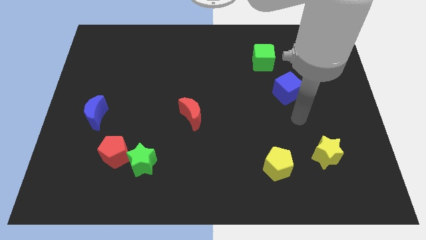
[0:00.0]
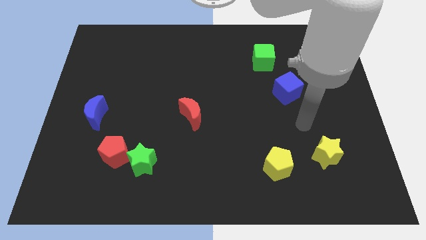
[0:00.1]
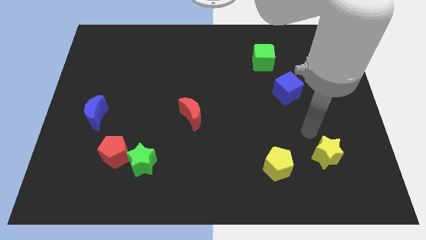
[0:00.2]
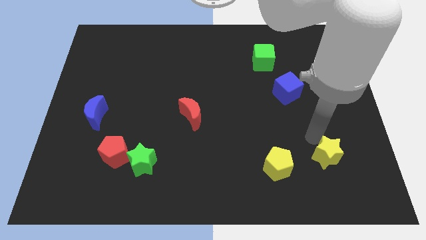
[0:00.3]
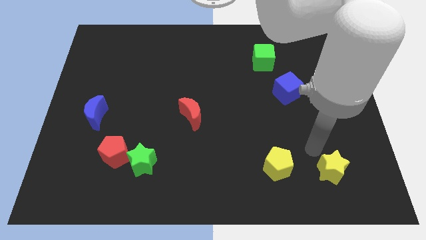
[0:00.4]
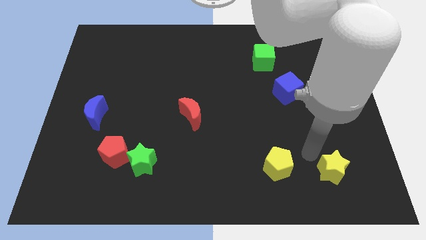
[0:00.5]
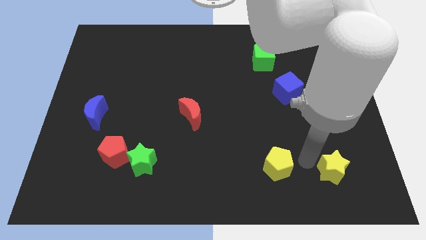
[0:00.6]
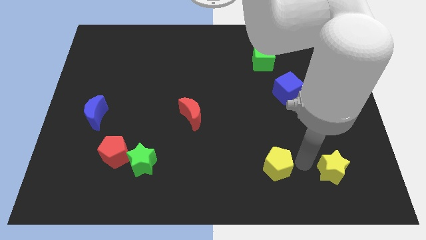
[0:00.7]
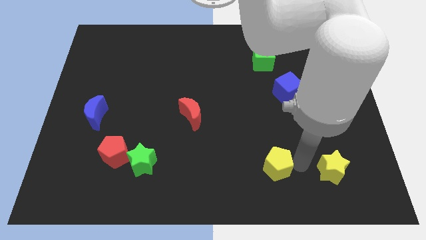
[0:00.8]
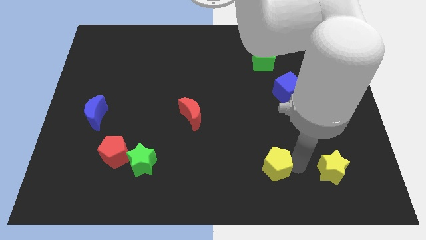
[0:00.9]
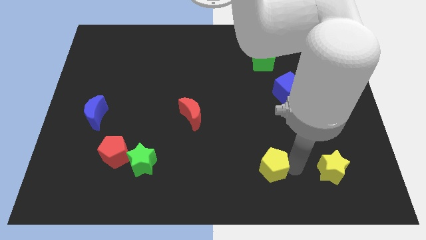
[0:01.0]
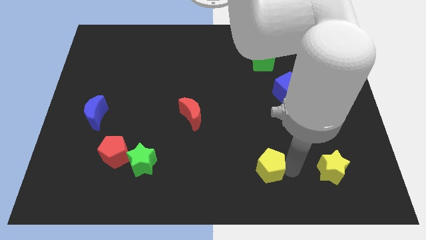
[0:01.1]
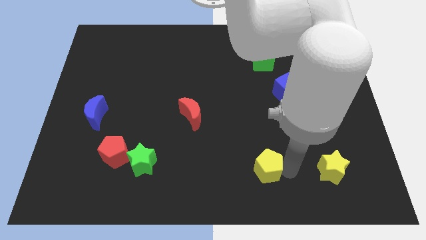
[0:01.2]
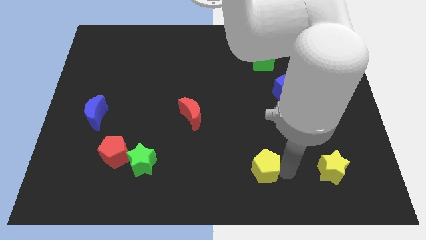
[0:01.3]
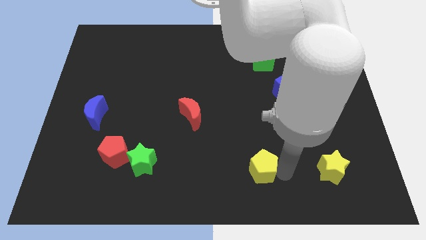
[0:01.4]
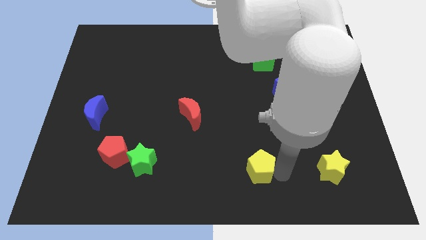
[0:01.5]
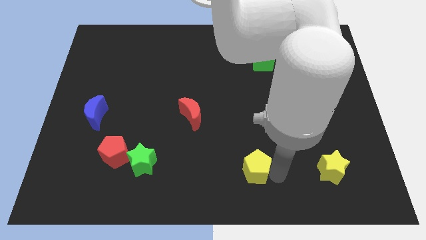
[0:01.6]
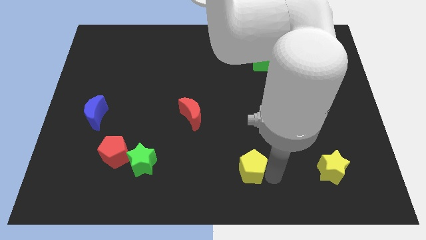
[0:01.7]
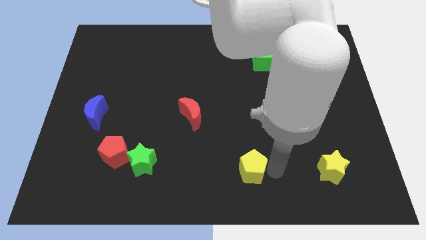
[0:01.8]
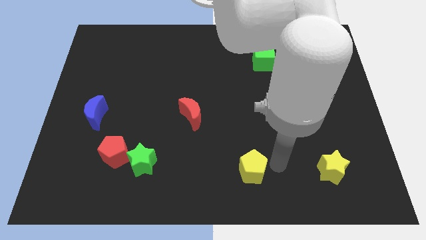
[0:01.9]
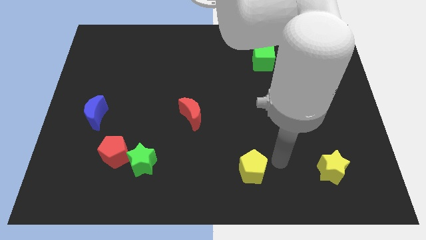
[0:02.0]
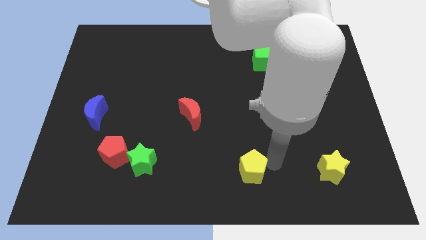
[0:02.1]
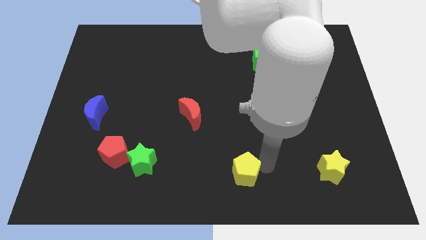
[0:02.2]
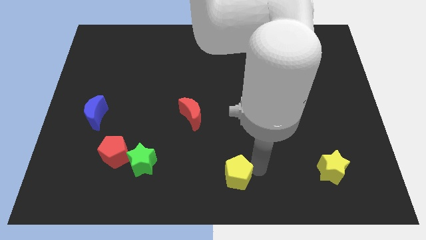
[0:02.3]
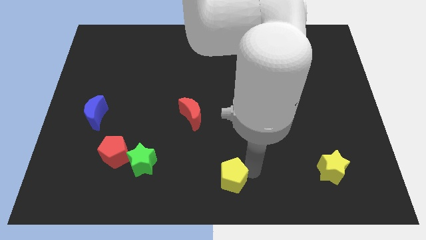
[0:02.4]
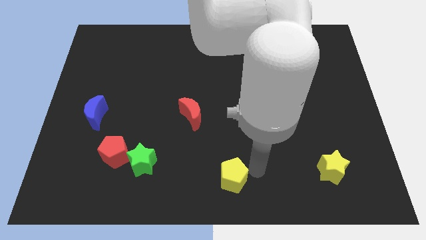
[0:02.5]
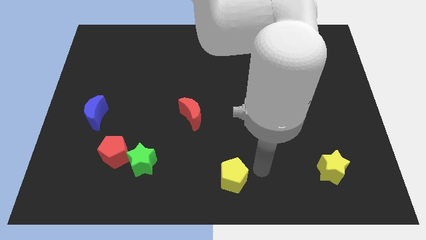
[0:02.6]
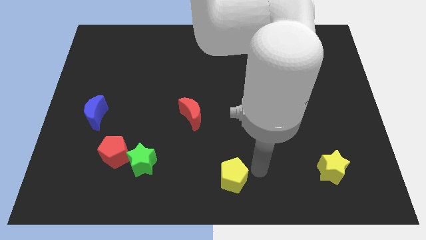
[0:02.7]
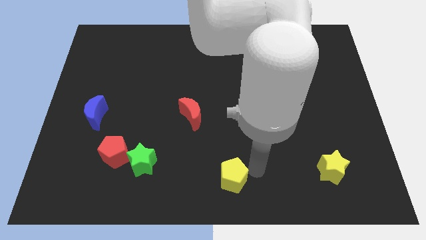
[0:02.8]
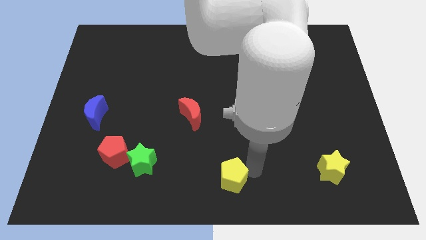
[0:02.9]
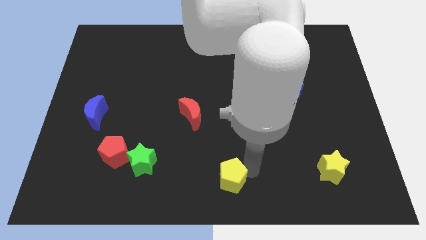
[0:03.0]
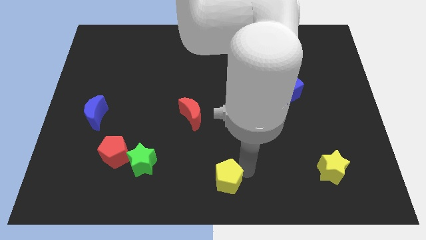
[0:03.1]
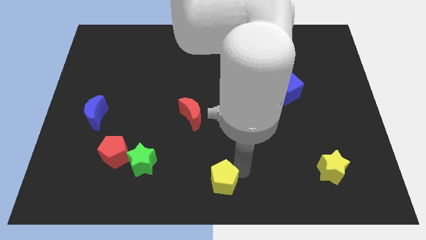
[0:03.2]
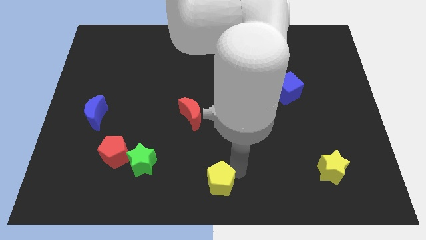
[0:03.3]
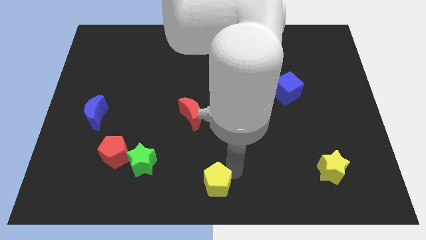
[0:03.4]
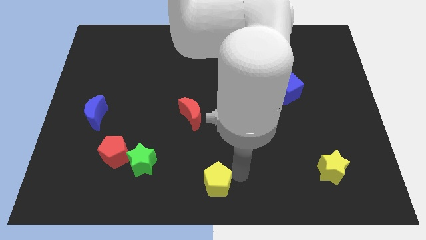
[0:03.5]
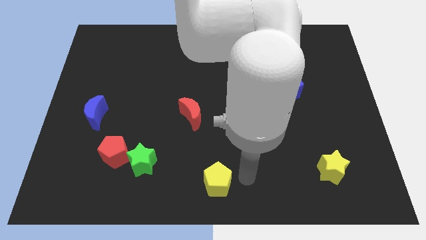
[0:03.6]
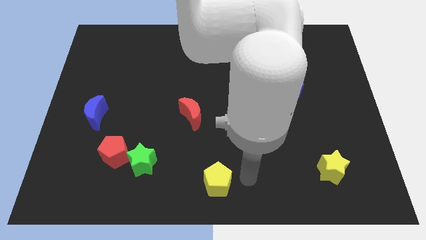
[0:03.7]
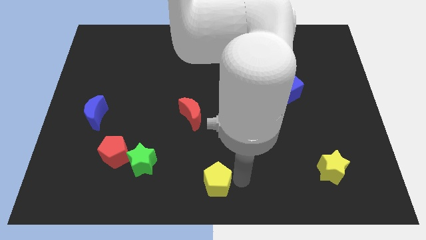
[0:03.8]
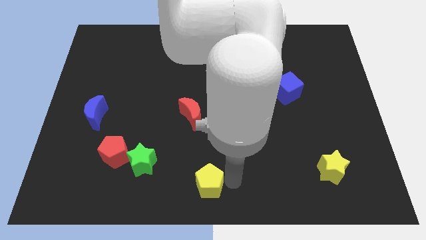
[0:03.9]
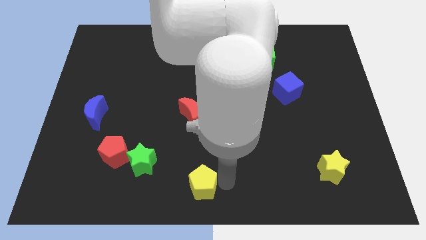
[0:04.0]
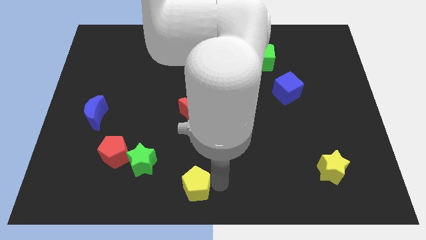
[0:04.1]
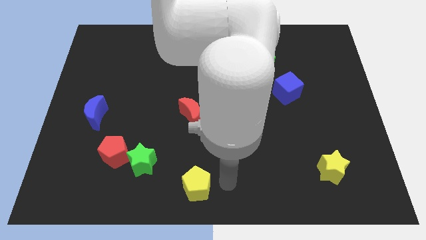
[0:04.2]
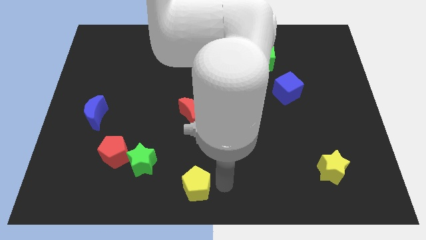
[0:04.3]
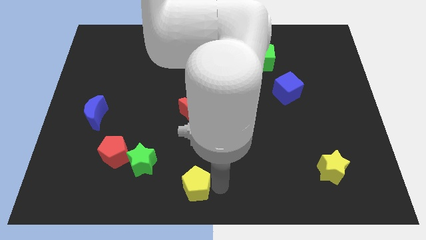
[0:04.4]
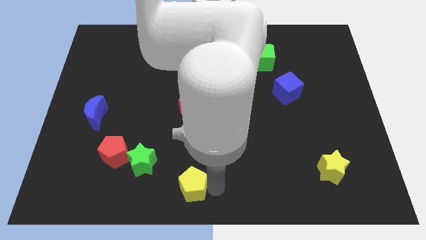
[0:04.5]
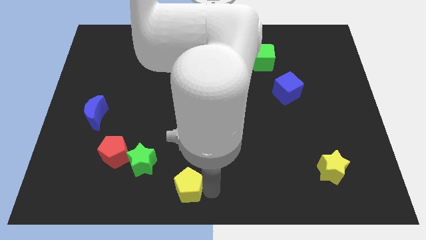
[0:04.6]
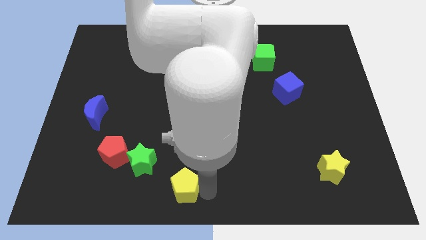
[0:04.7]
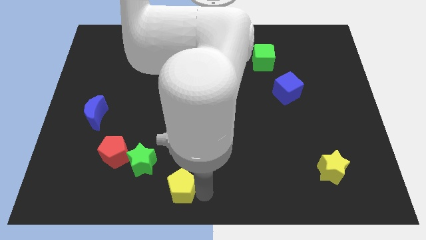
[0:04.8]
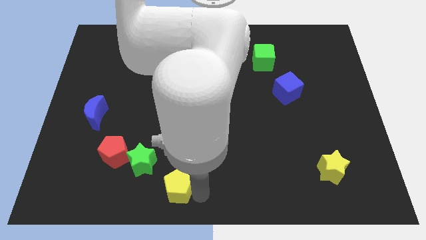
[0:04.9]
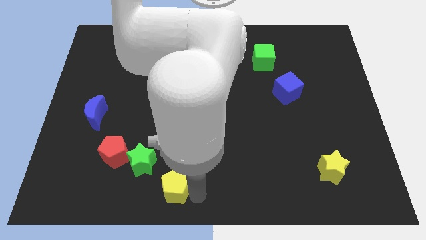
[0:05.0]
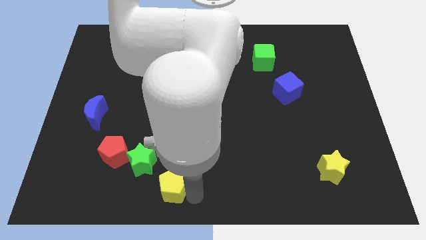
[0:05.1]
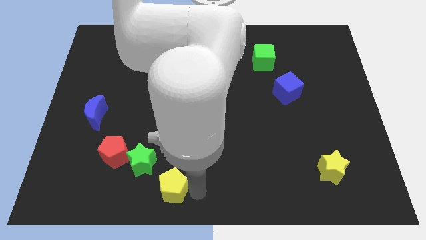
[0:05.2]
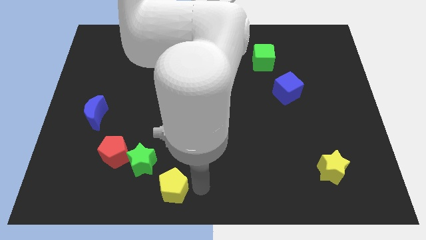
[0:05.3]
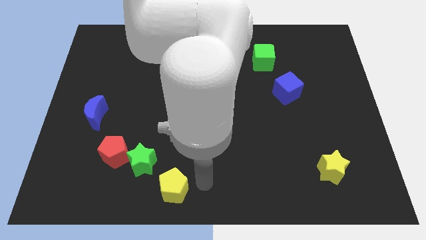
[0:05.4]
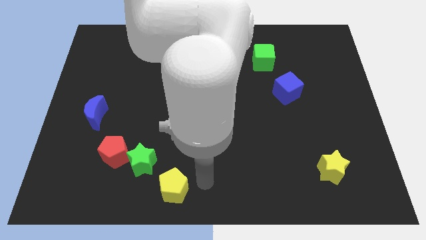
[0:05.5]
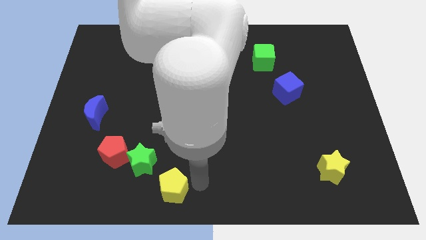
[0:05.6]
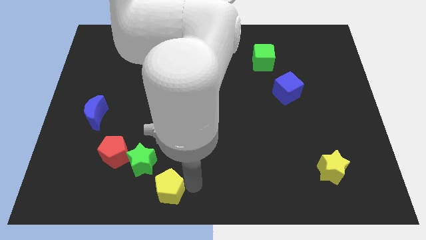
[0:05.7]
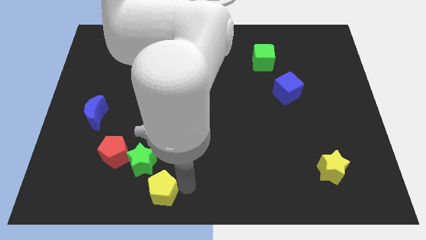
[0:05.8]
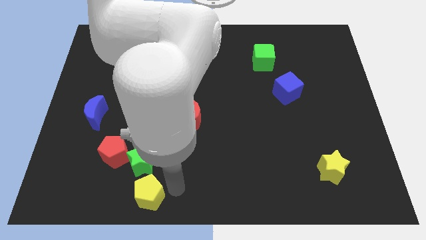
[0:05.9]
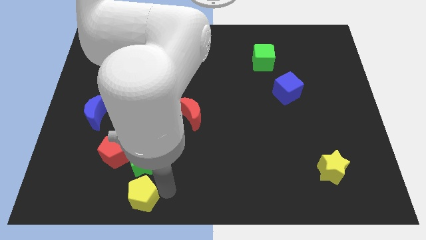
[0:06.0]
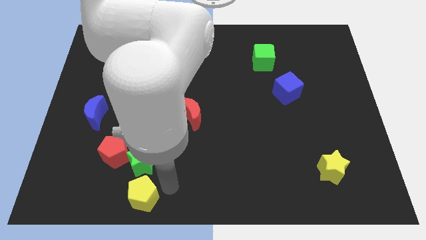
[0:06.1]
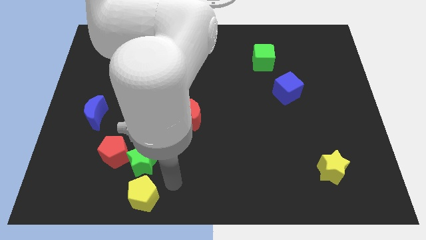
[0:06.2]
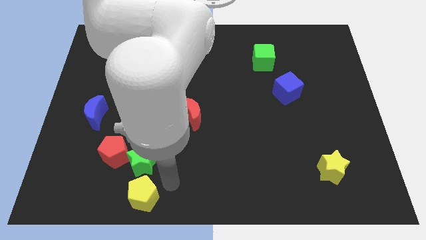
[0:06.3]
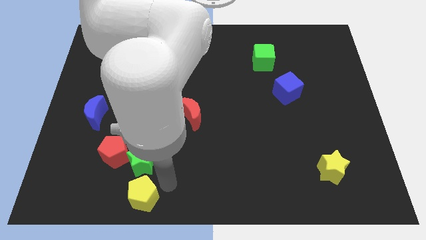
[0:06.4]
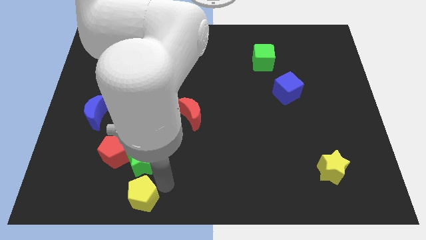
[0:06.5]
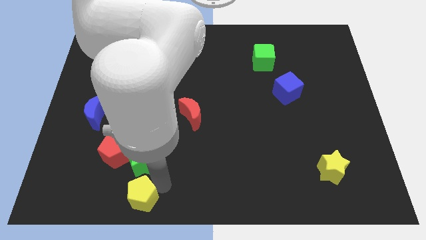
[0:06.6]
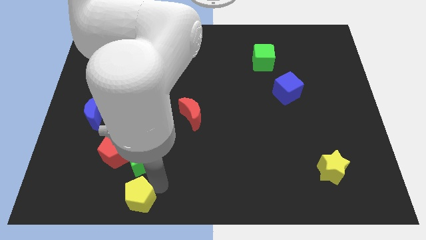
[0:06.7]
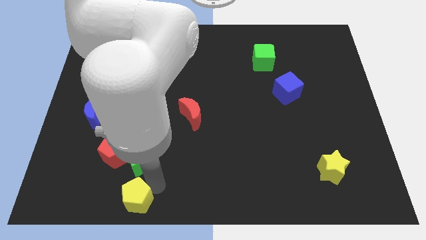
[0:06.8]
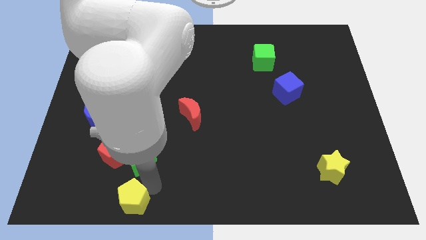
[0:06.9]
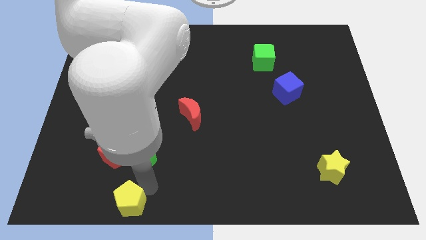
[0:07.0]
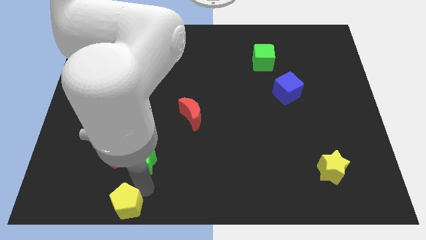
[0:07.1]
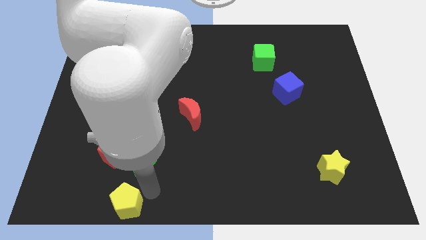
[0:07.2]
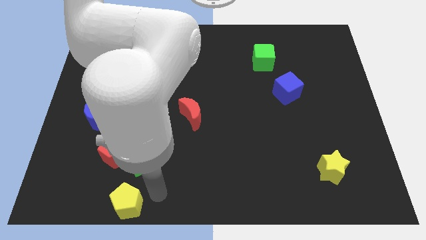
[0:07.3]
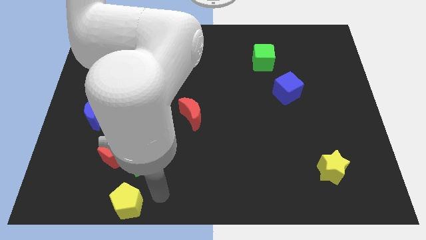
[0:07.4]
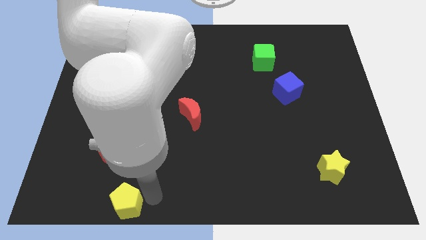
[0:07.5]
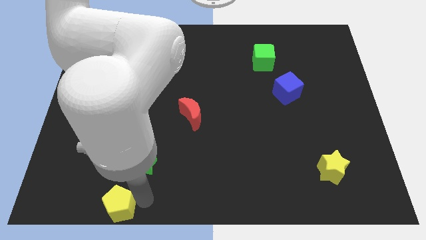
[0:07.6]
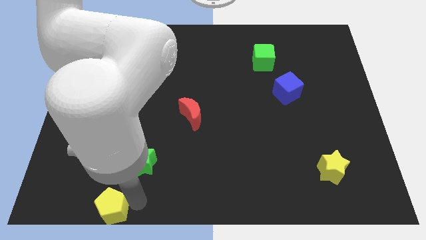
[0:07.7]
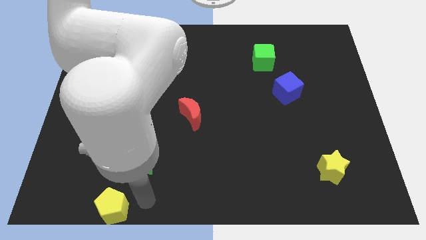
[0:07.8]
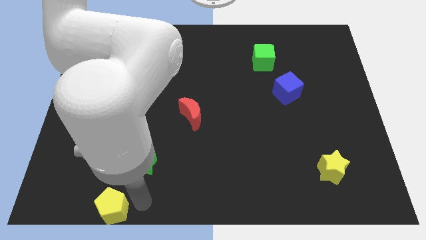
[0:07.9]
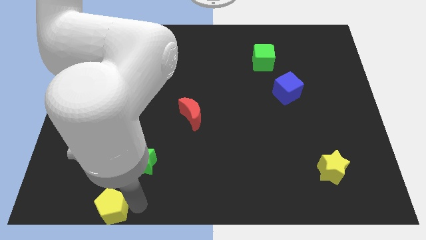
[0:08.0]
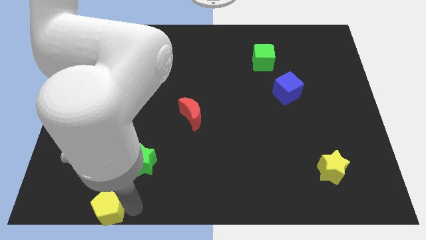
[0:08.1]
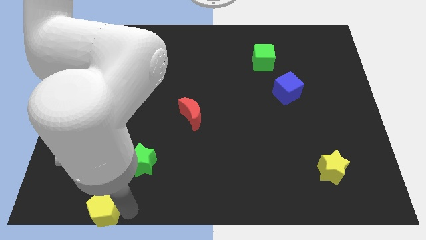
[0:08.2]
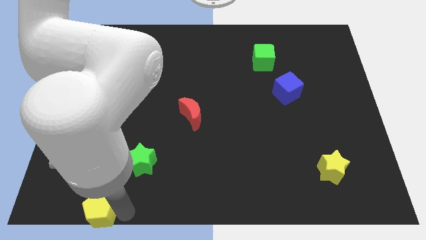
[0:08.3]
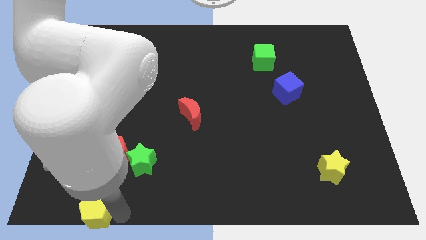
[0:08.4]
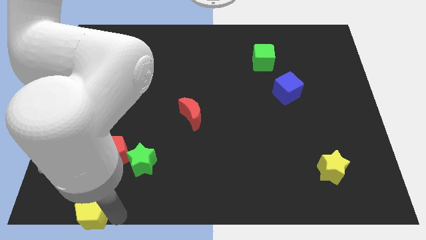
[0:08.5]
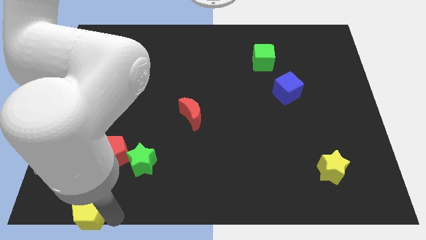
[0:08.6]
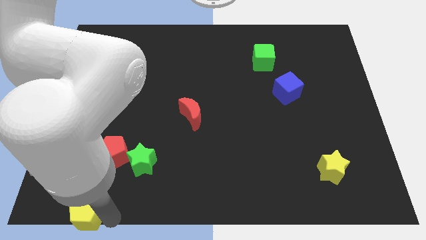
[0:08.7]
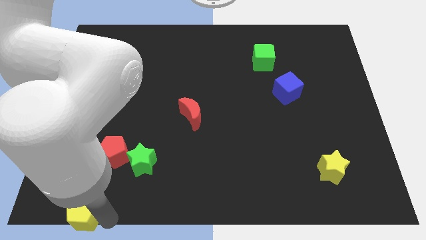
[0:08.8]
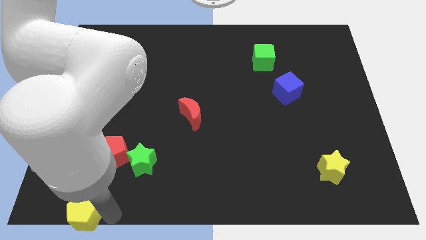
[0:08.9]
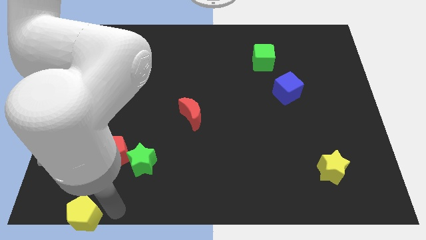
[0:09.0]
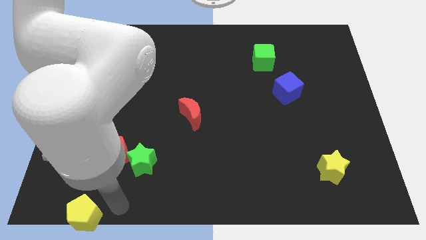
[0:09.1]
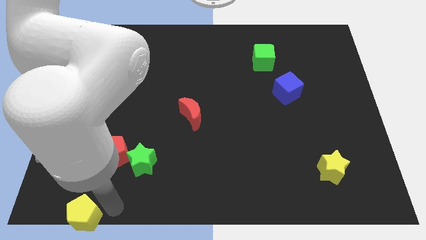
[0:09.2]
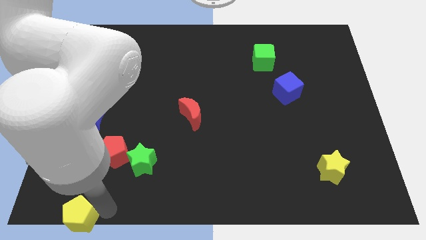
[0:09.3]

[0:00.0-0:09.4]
move the yellow pentagon to the bottom left
